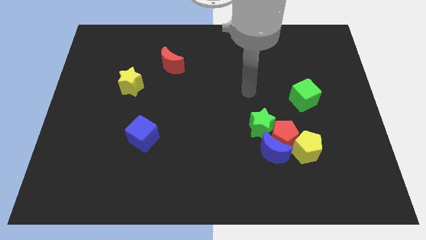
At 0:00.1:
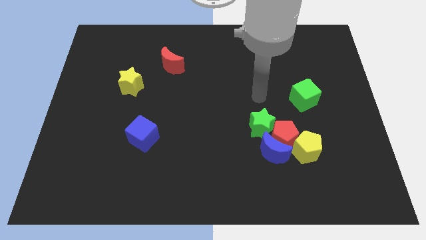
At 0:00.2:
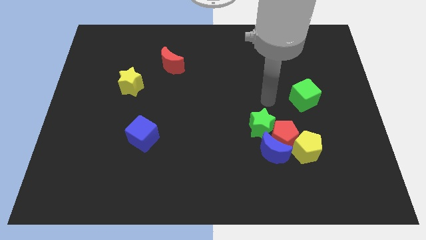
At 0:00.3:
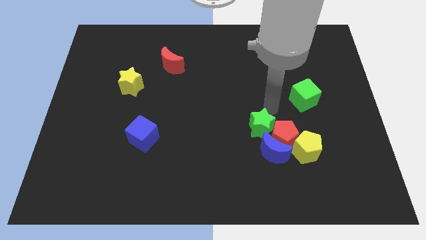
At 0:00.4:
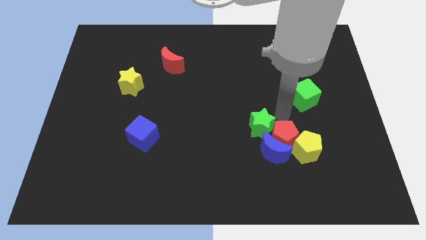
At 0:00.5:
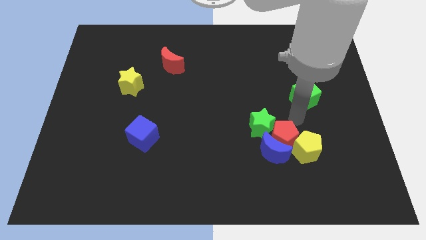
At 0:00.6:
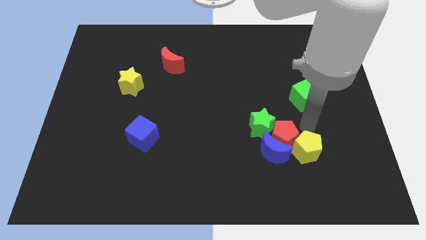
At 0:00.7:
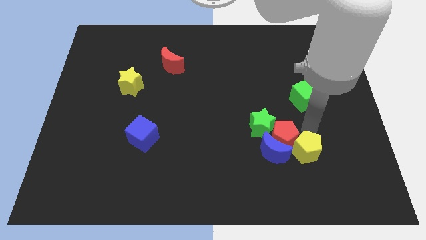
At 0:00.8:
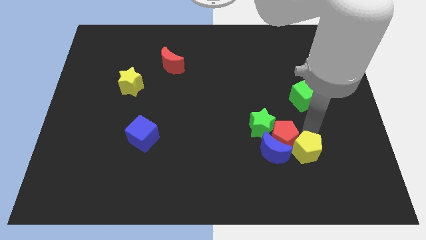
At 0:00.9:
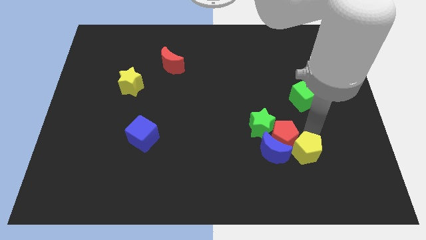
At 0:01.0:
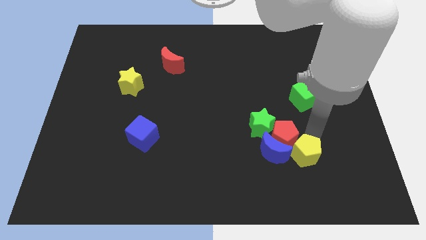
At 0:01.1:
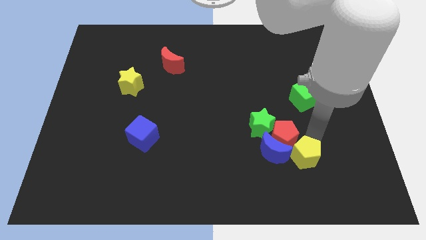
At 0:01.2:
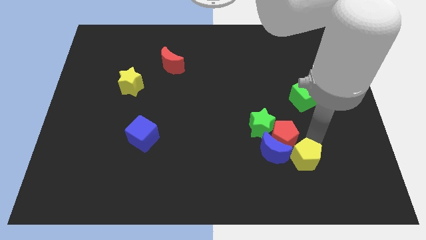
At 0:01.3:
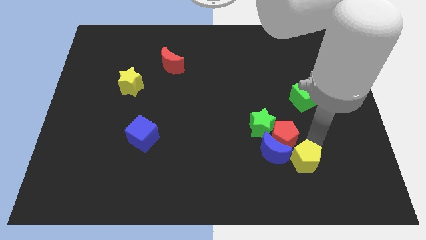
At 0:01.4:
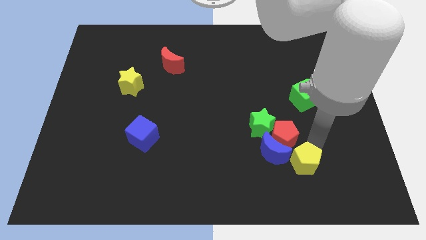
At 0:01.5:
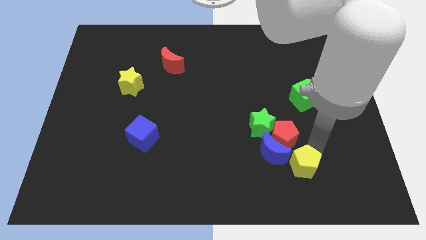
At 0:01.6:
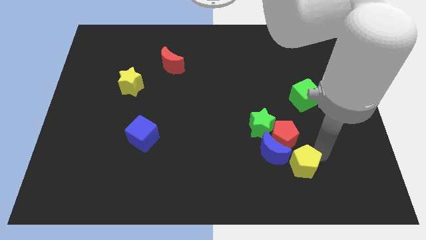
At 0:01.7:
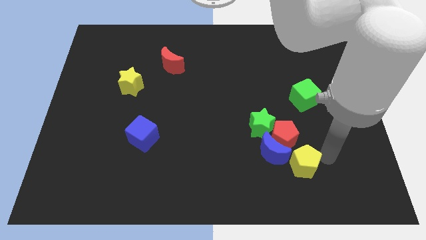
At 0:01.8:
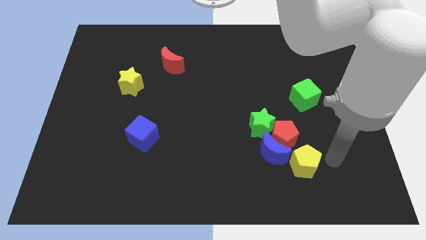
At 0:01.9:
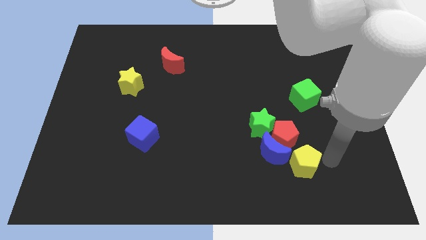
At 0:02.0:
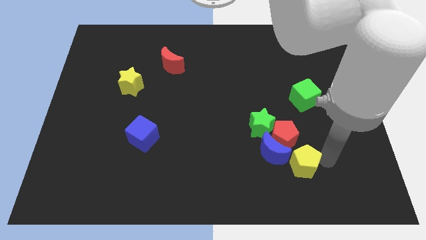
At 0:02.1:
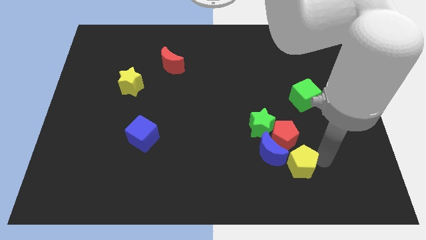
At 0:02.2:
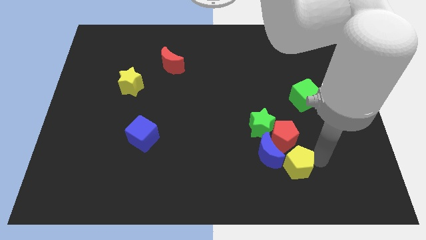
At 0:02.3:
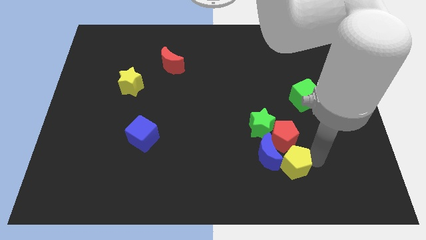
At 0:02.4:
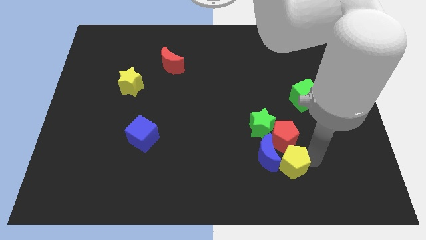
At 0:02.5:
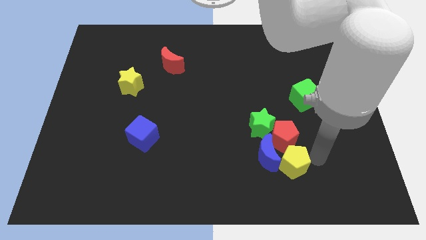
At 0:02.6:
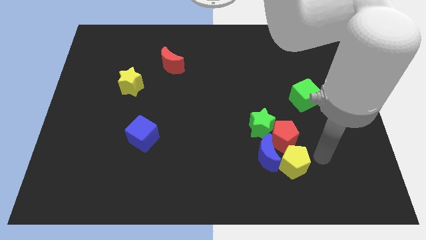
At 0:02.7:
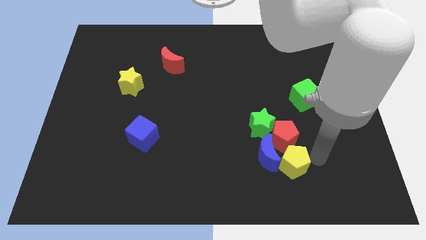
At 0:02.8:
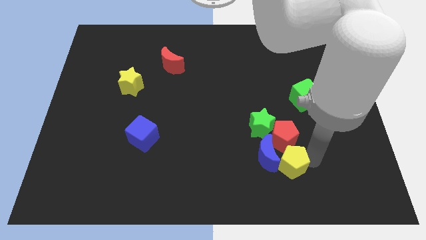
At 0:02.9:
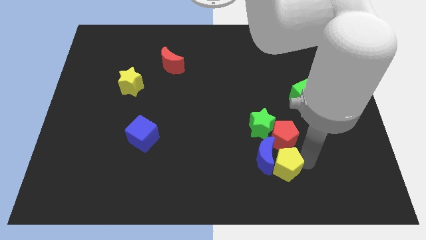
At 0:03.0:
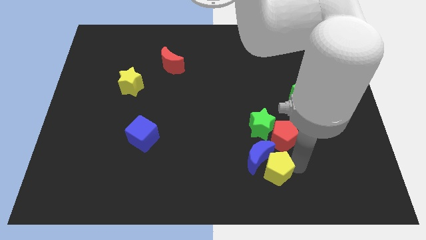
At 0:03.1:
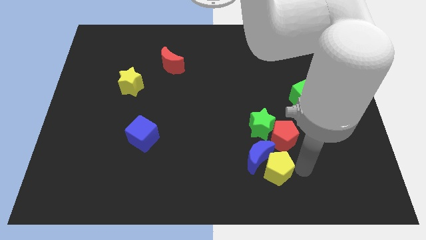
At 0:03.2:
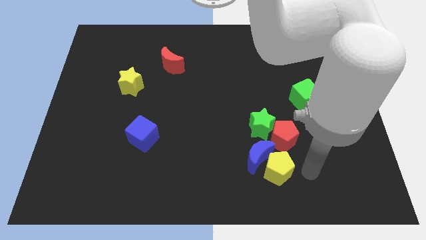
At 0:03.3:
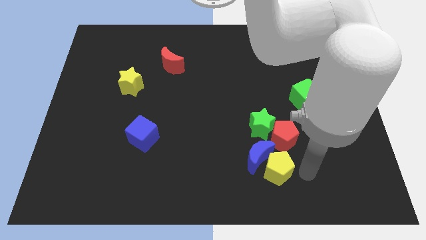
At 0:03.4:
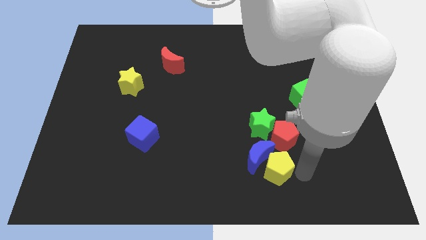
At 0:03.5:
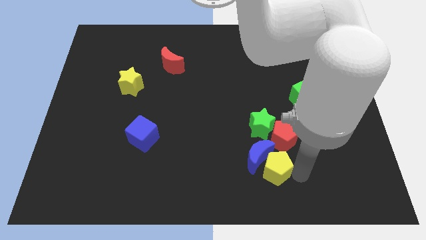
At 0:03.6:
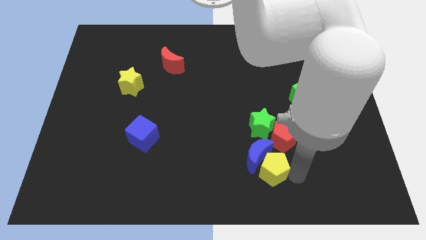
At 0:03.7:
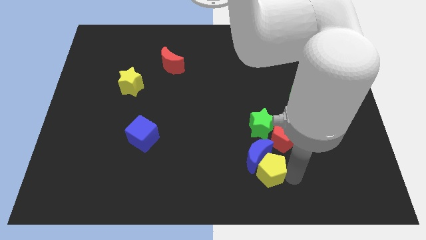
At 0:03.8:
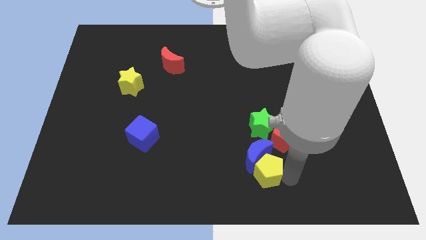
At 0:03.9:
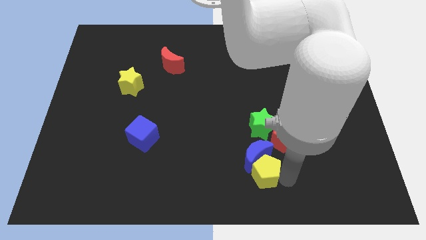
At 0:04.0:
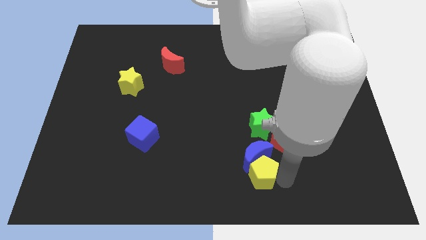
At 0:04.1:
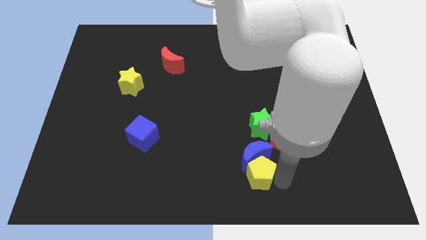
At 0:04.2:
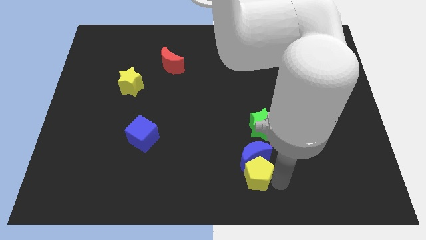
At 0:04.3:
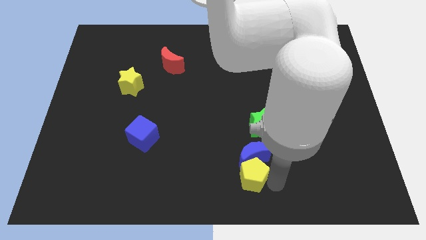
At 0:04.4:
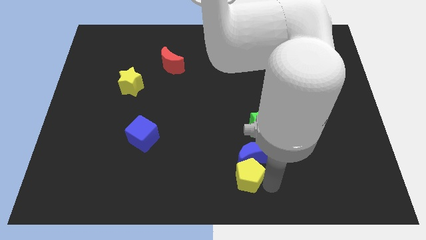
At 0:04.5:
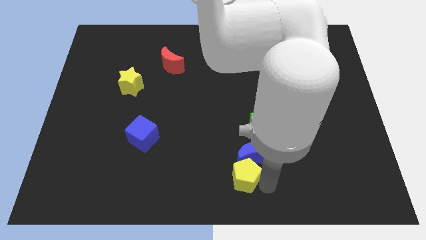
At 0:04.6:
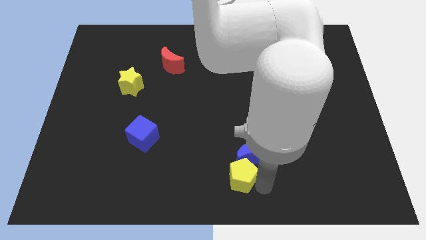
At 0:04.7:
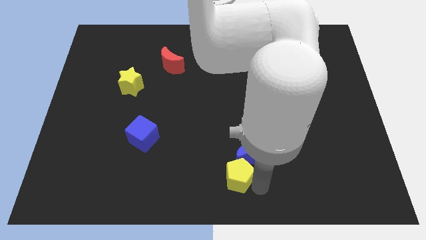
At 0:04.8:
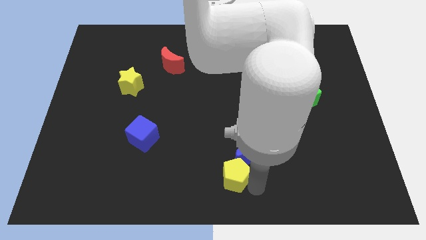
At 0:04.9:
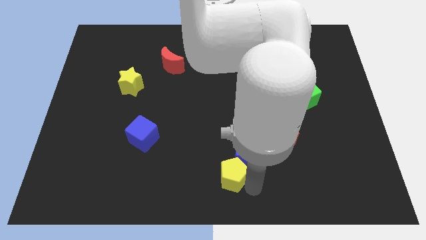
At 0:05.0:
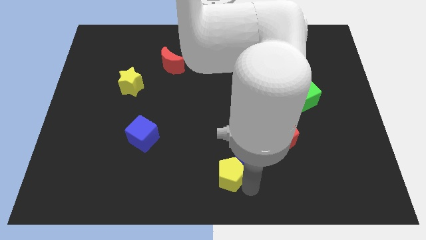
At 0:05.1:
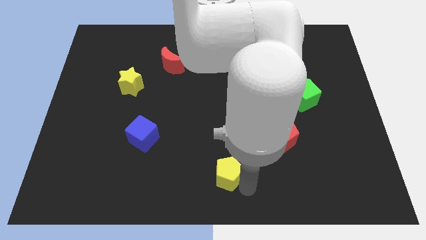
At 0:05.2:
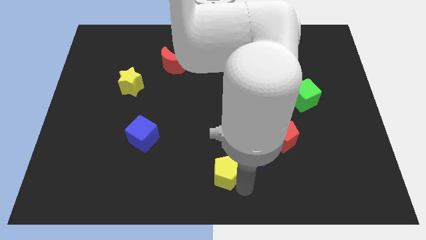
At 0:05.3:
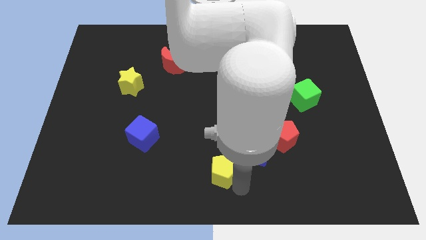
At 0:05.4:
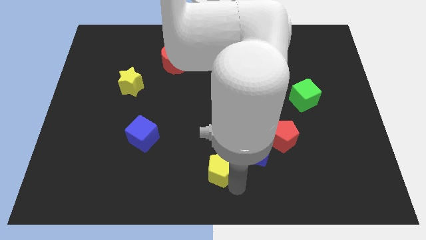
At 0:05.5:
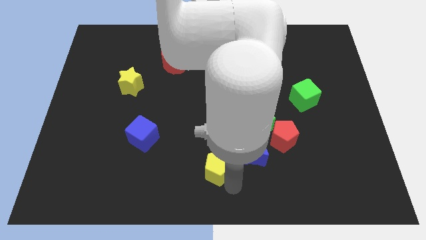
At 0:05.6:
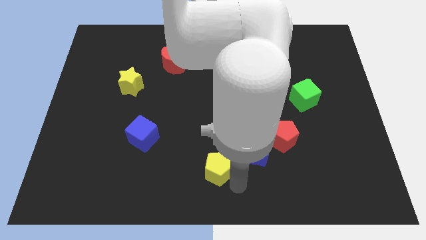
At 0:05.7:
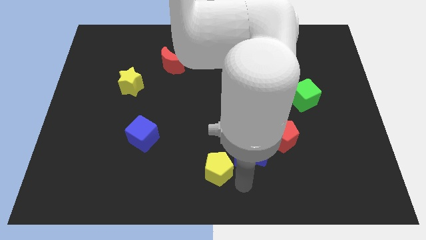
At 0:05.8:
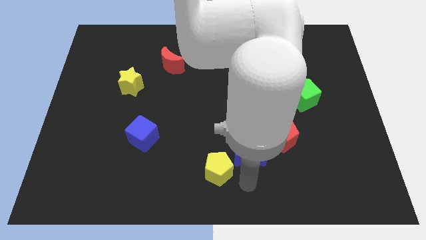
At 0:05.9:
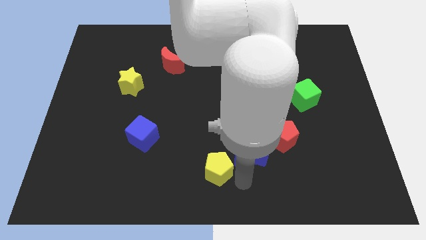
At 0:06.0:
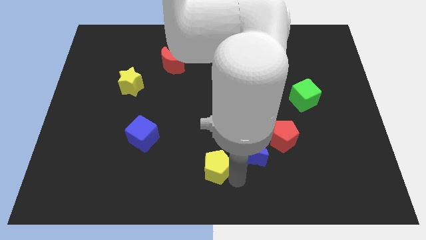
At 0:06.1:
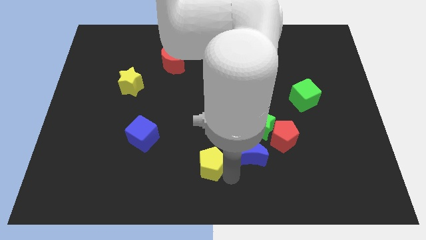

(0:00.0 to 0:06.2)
move the yellow pentagon to the left

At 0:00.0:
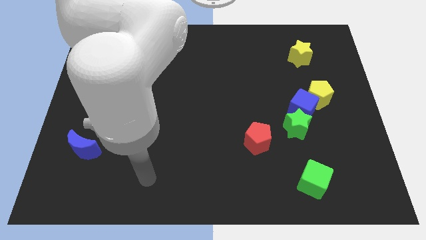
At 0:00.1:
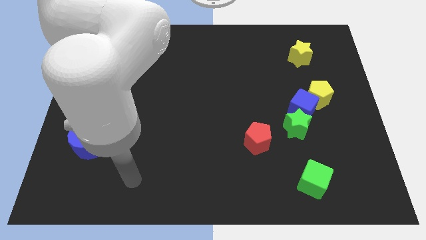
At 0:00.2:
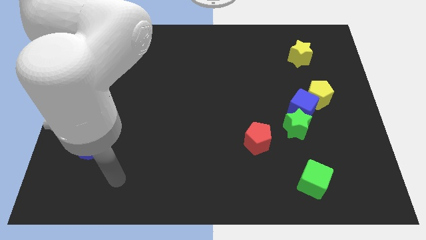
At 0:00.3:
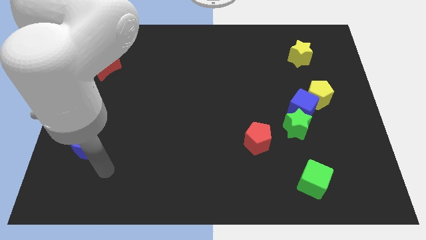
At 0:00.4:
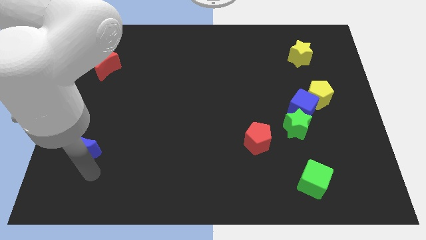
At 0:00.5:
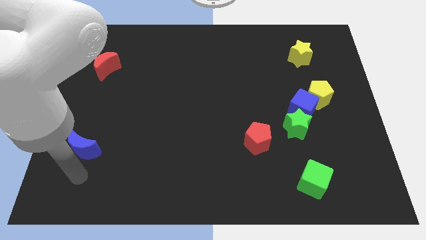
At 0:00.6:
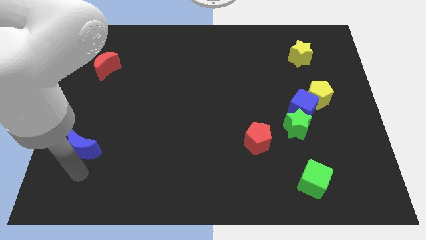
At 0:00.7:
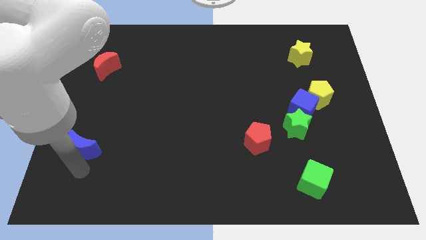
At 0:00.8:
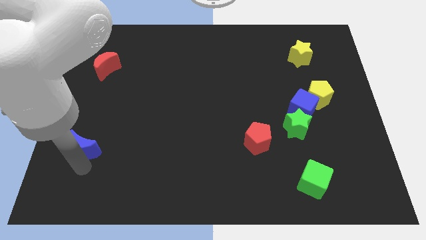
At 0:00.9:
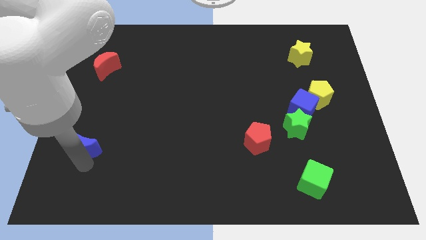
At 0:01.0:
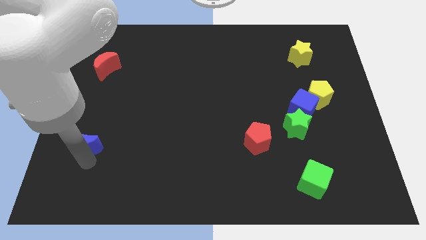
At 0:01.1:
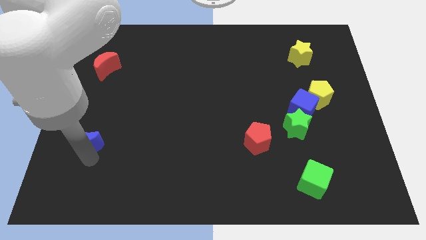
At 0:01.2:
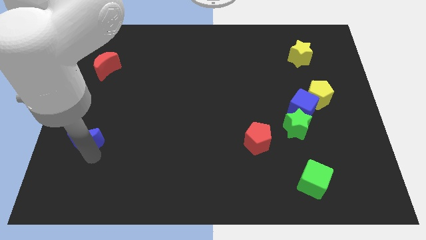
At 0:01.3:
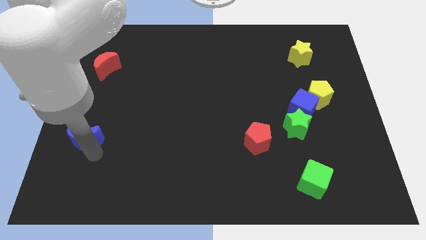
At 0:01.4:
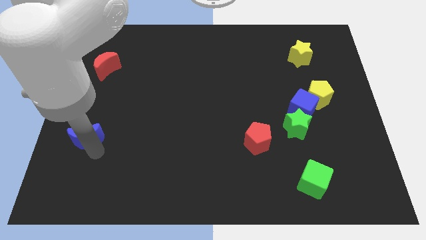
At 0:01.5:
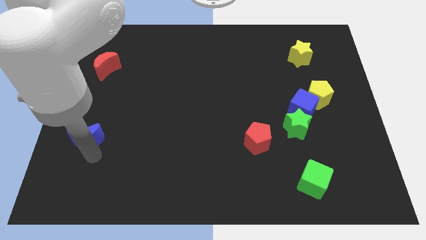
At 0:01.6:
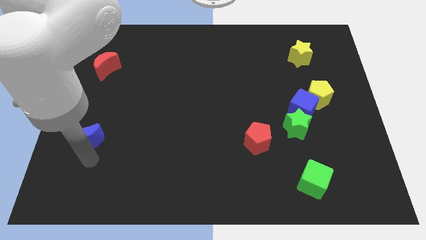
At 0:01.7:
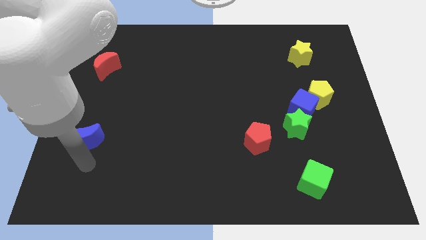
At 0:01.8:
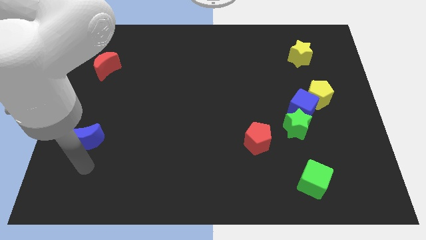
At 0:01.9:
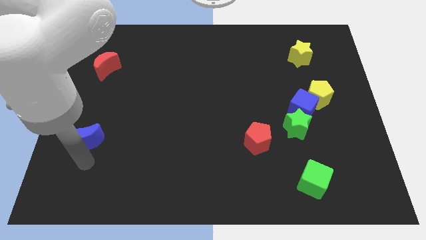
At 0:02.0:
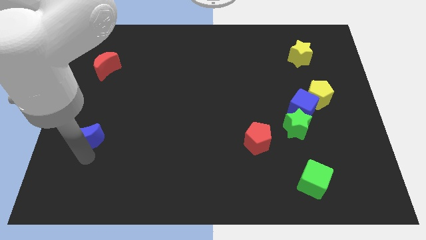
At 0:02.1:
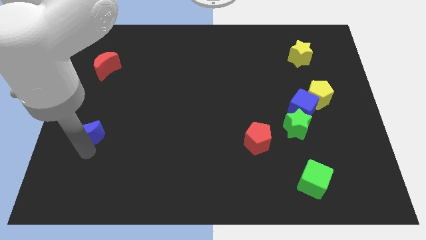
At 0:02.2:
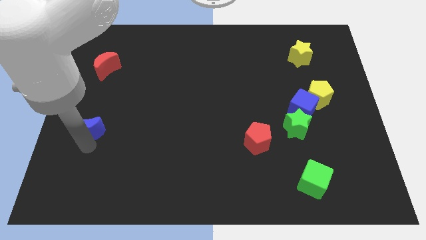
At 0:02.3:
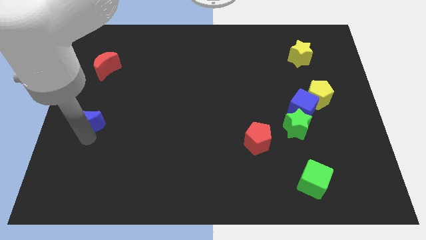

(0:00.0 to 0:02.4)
slightly push the blue moon upwards
